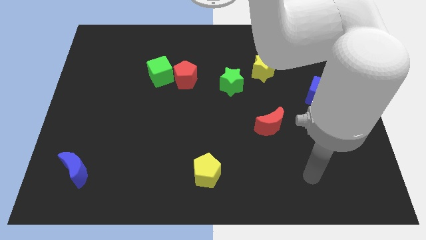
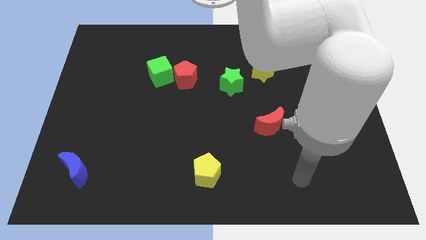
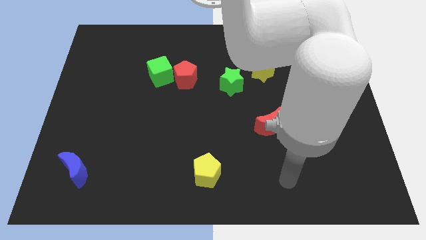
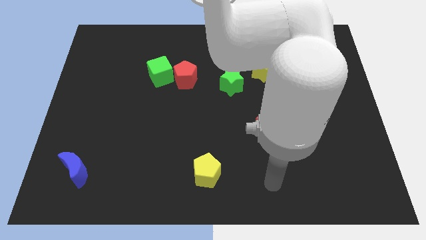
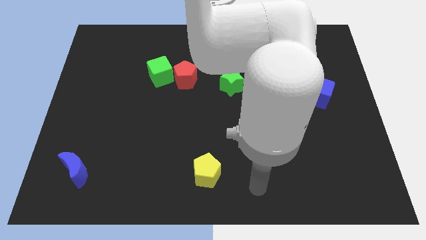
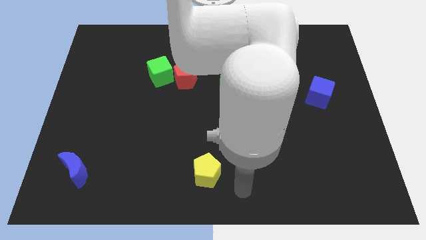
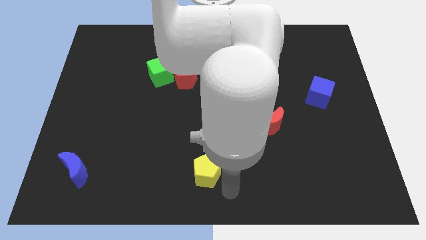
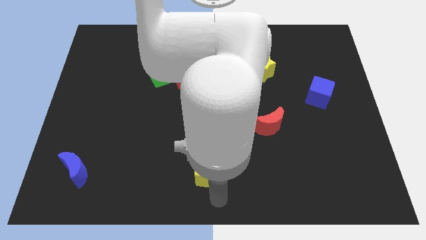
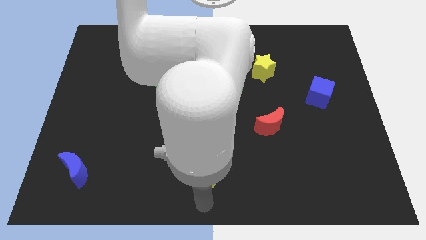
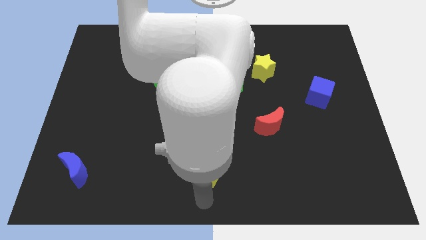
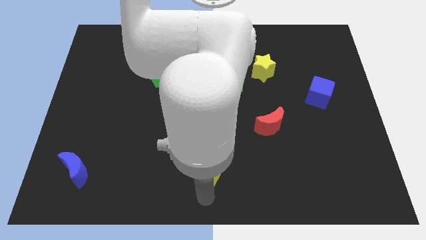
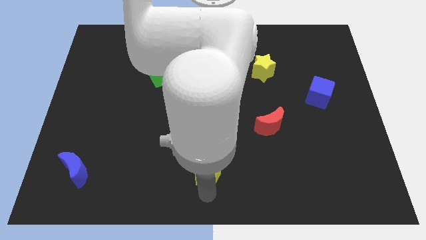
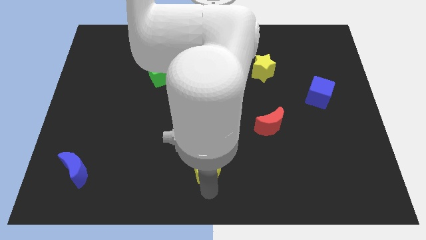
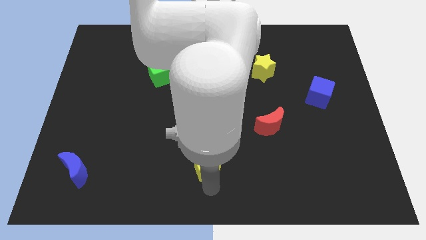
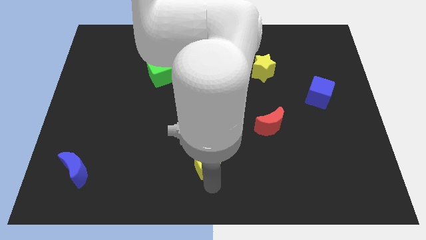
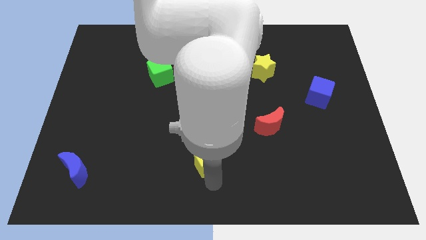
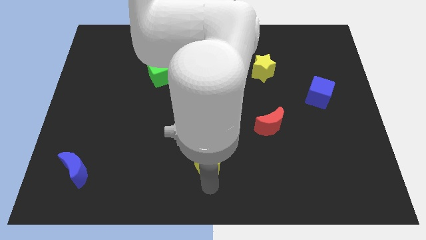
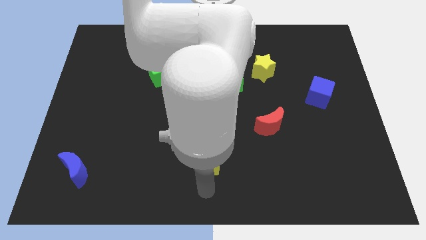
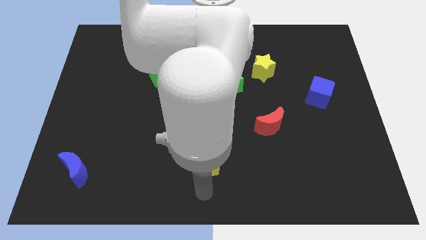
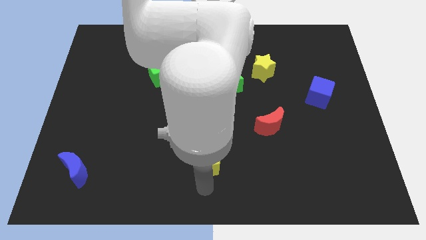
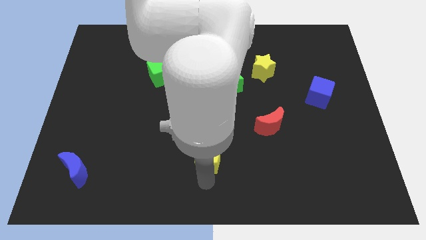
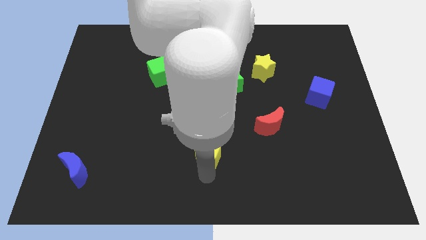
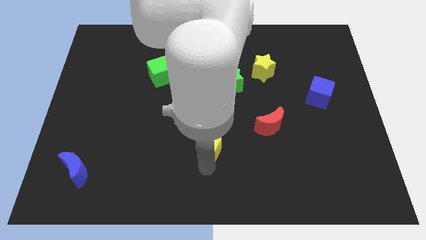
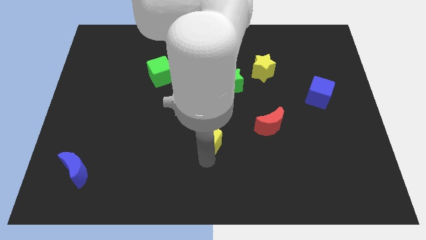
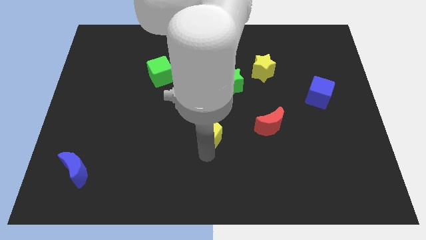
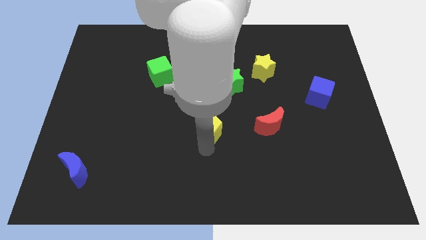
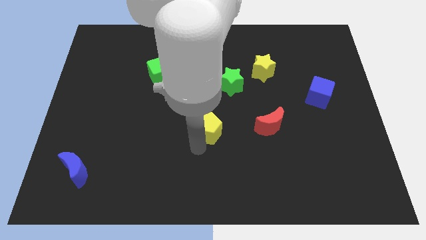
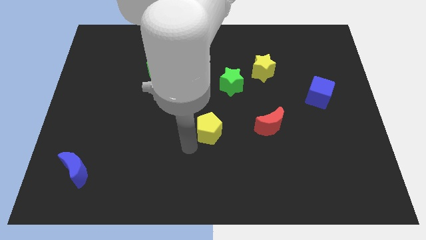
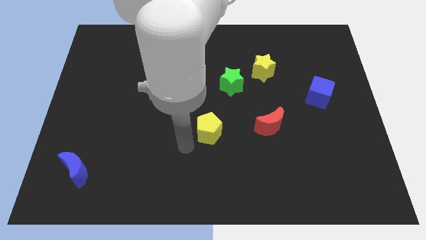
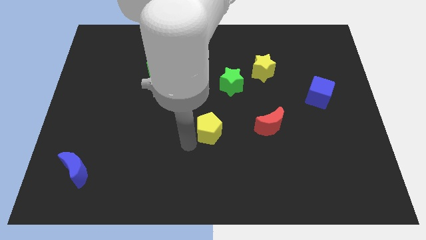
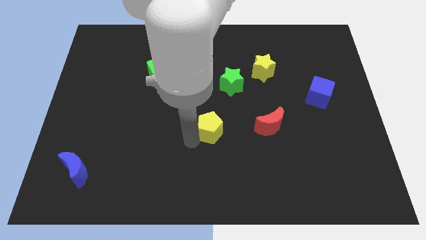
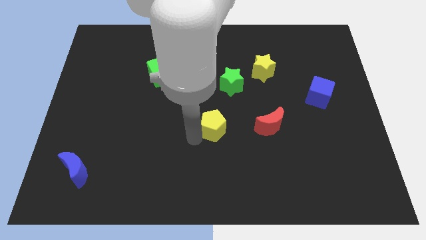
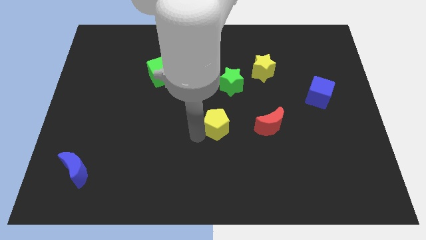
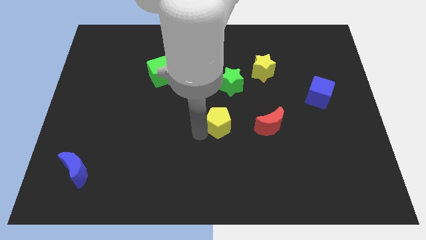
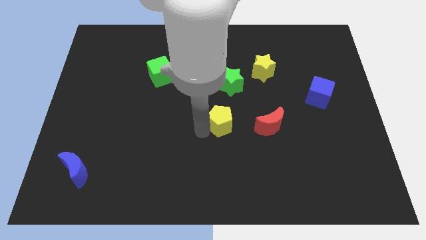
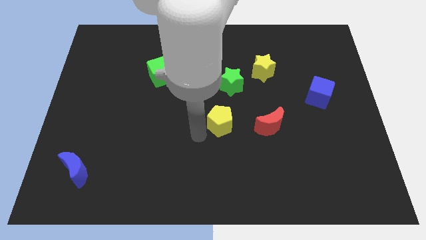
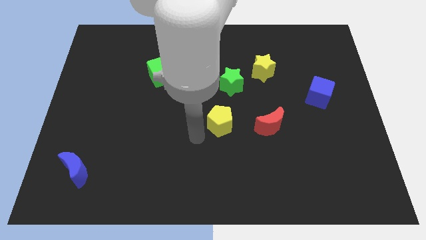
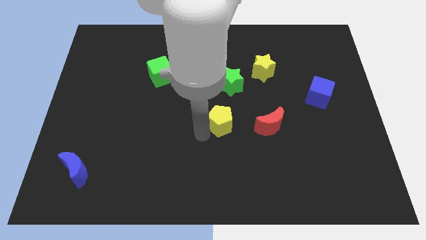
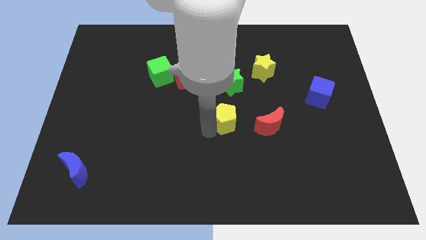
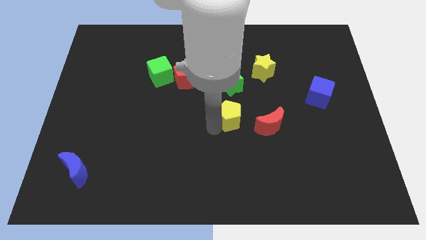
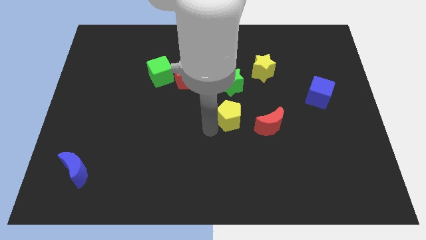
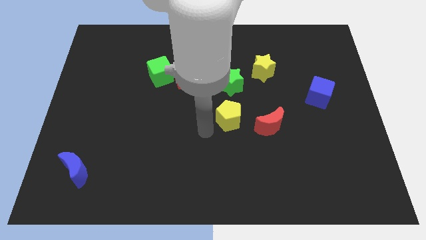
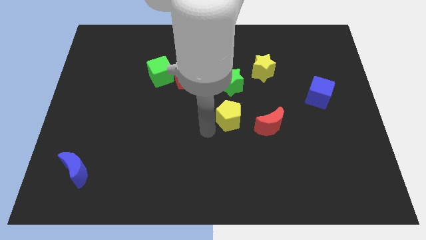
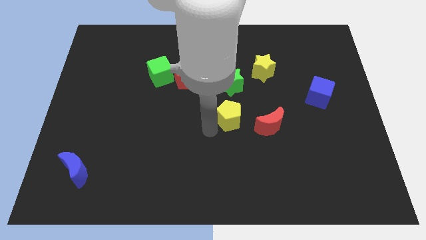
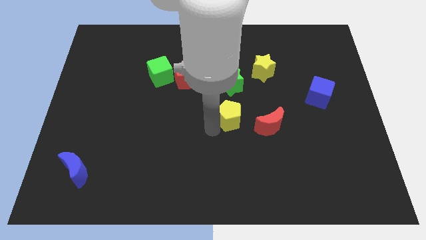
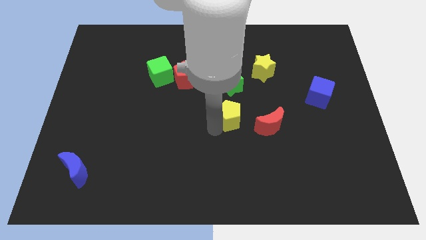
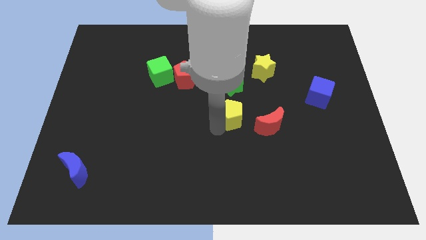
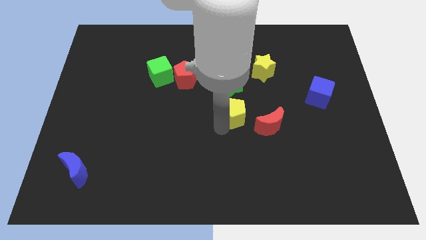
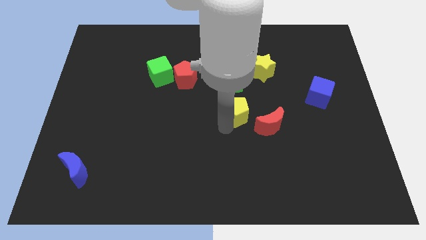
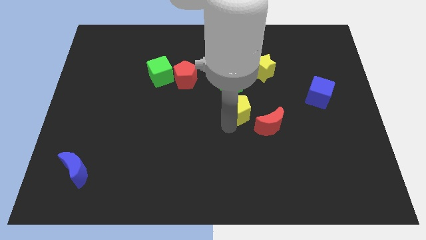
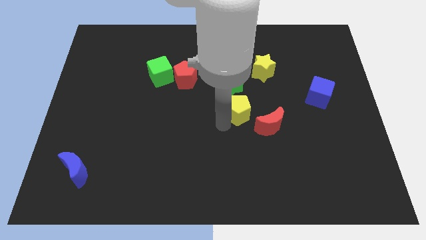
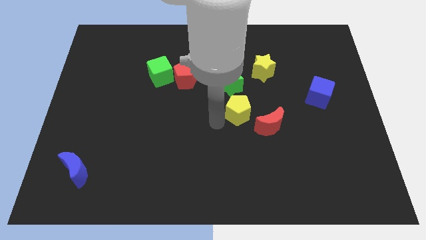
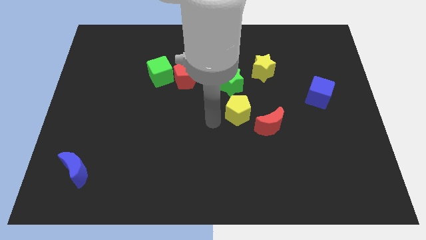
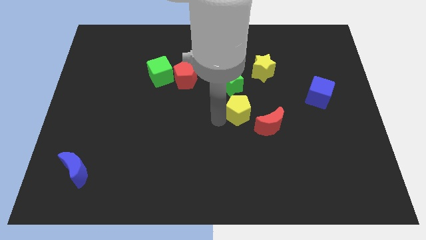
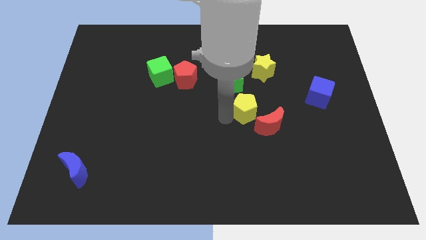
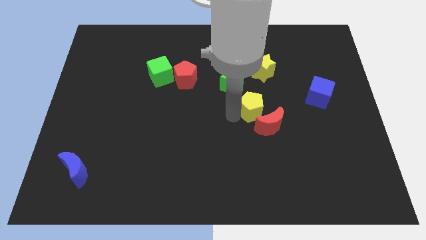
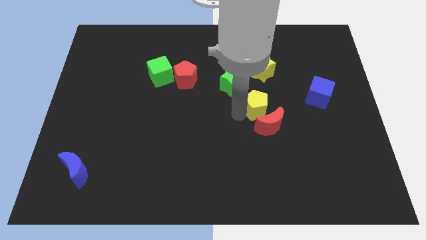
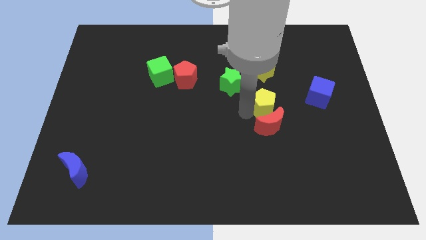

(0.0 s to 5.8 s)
push the yellow pentagon diagonally upwards and to the right

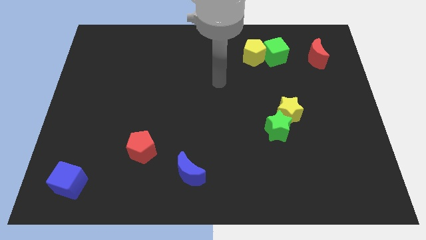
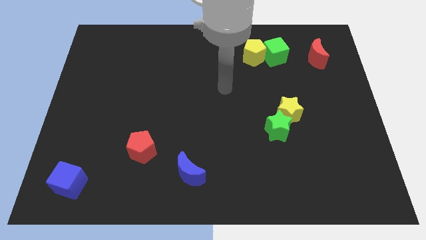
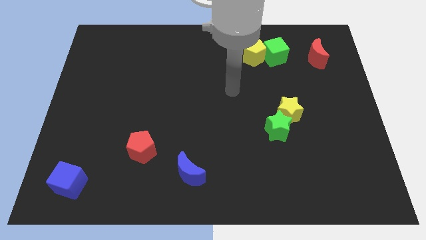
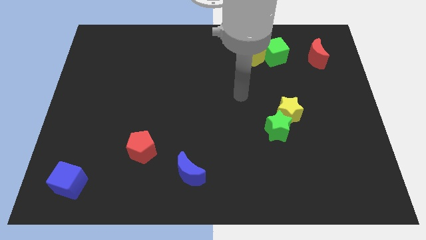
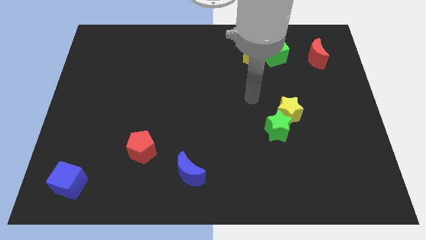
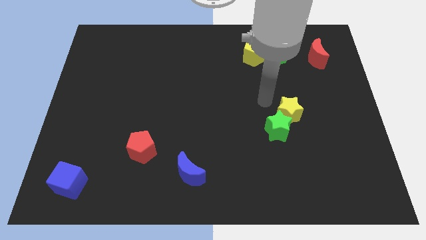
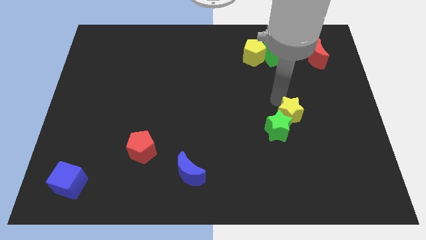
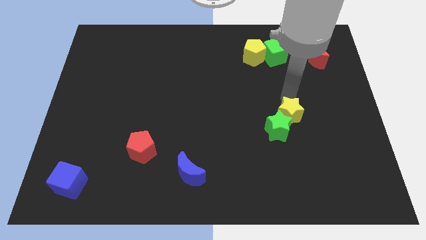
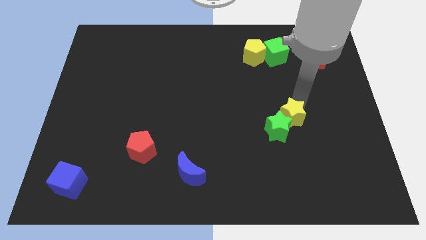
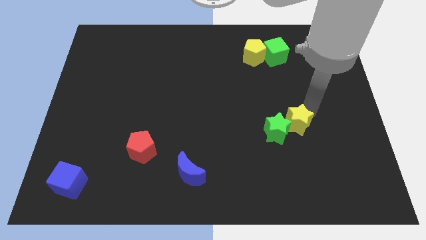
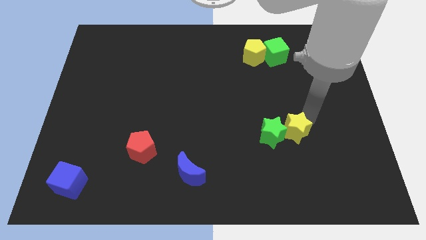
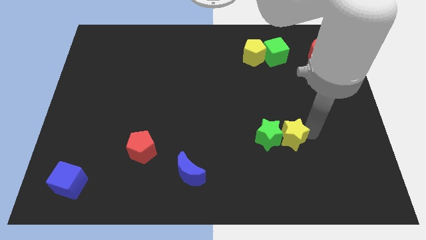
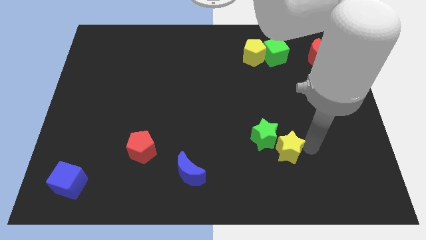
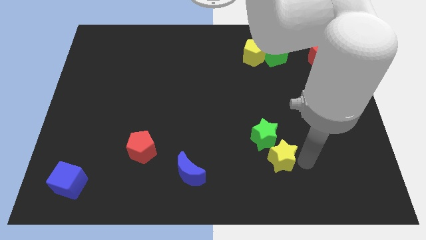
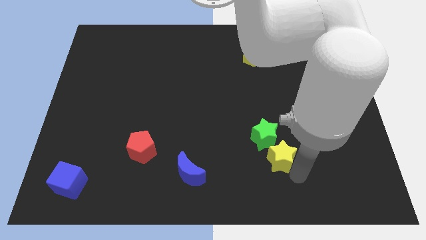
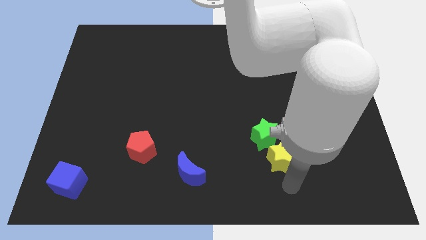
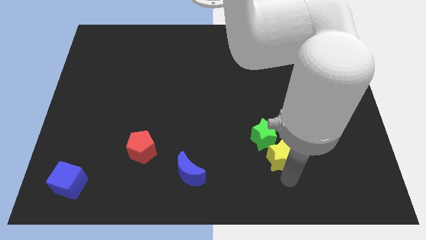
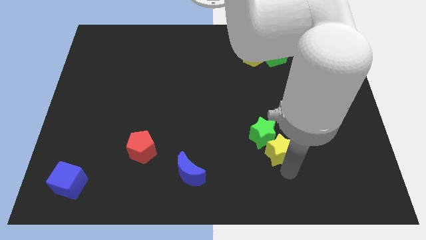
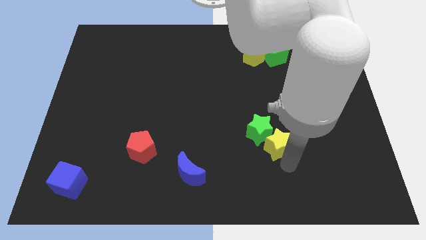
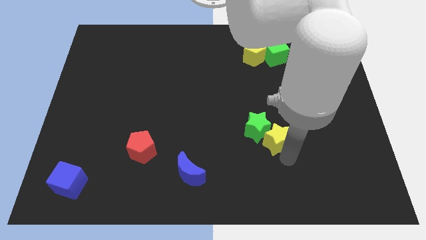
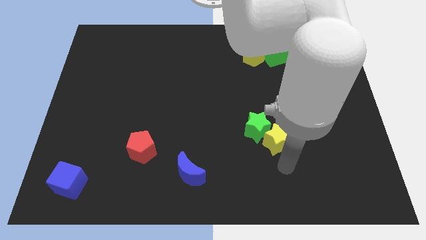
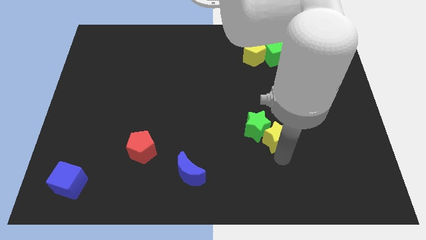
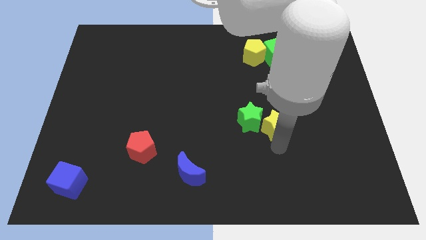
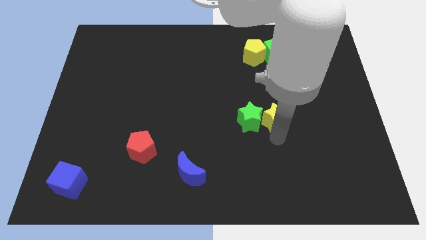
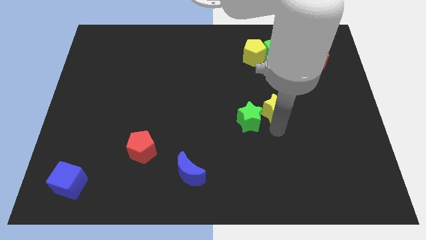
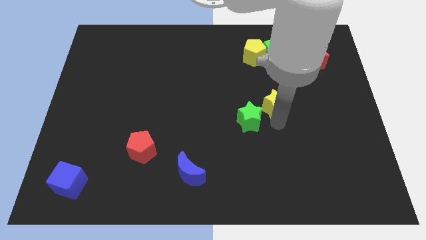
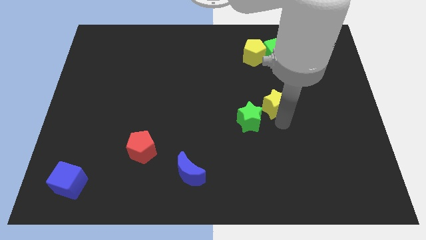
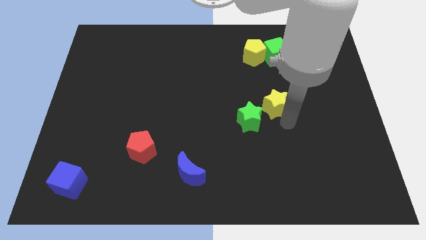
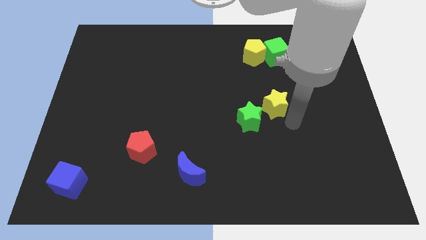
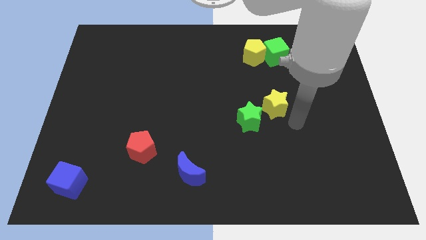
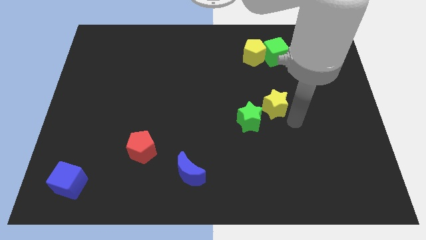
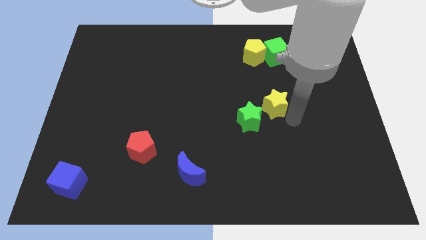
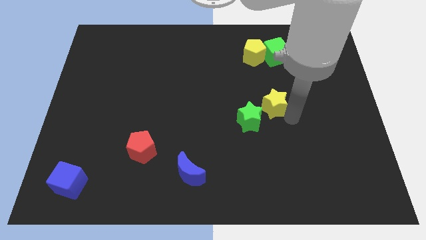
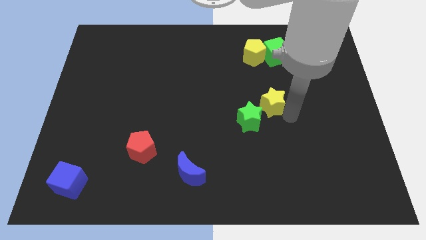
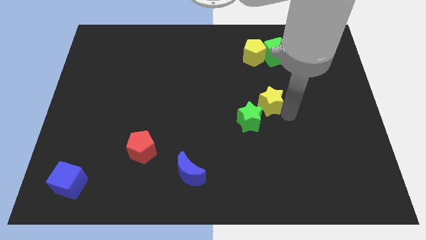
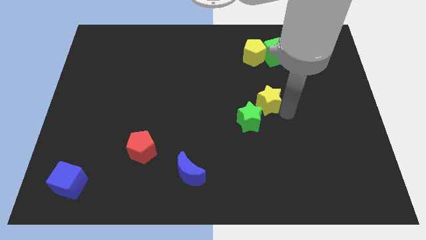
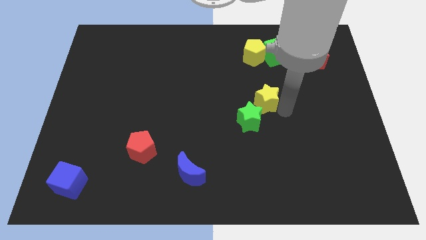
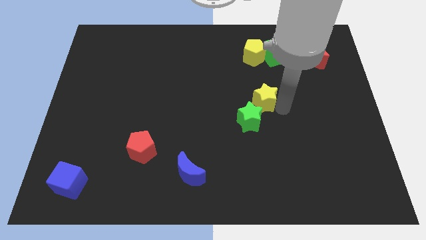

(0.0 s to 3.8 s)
slide the yellow star a little bit upwards and then to the left
